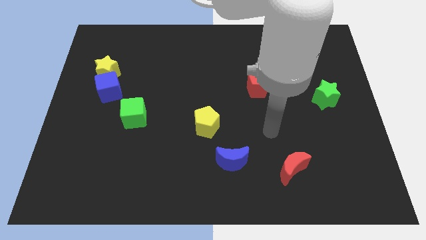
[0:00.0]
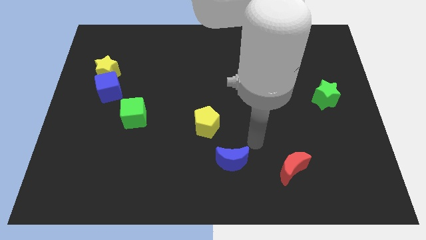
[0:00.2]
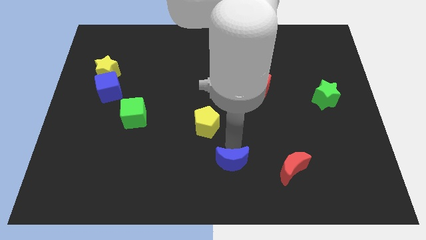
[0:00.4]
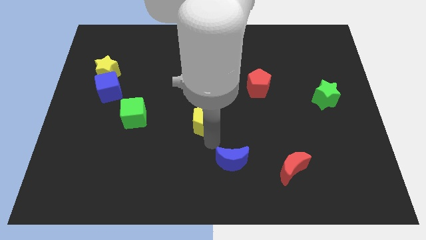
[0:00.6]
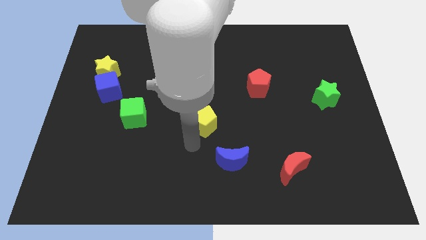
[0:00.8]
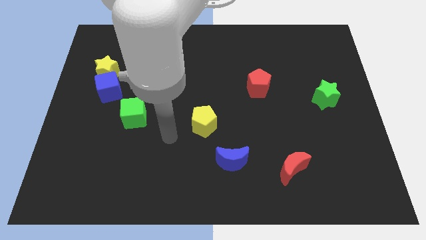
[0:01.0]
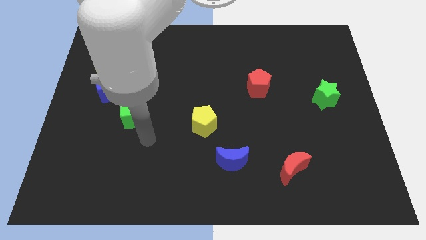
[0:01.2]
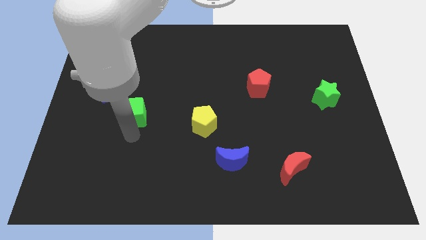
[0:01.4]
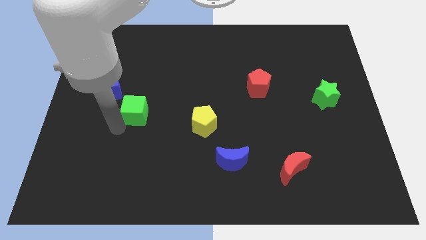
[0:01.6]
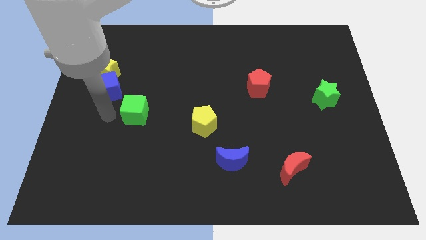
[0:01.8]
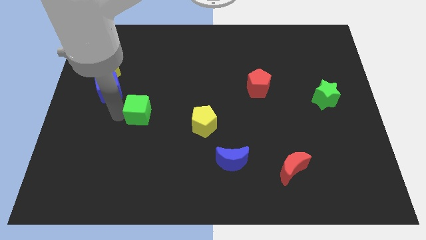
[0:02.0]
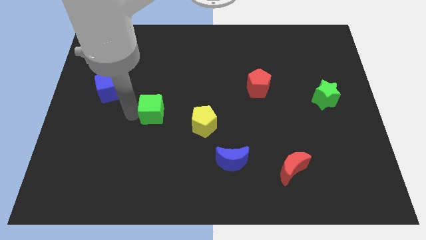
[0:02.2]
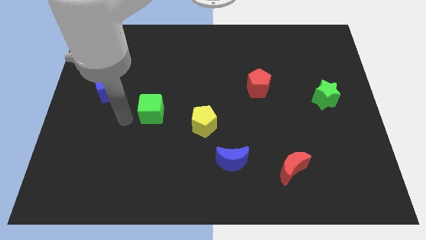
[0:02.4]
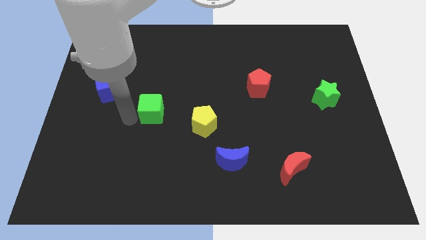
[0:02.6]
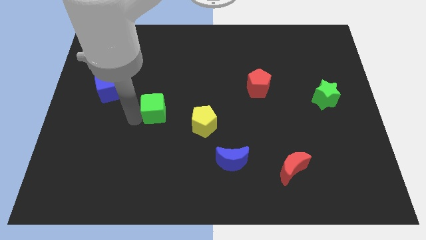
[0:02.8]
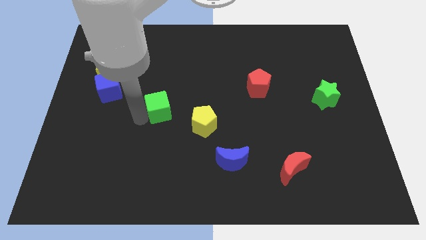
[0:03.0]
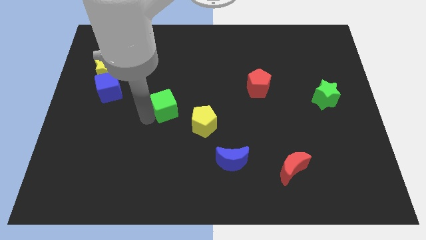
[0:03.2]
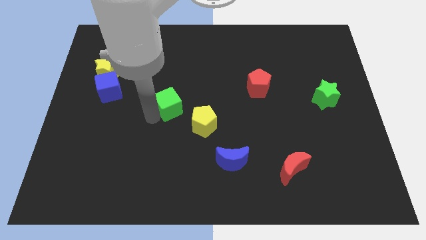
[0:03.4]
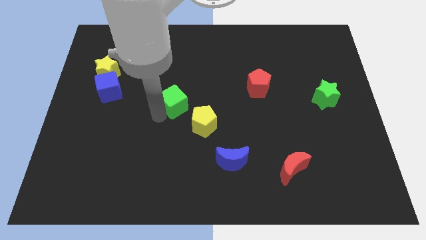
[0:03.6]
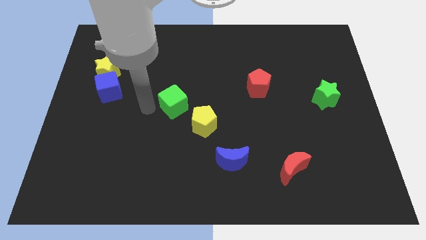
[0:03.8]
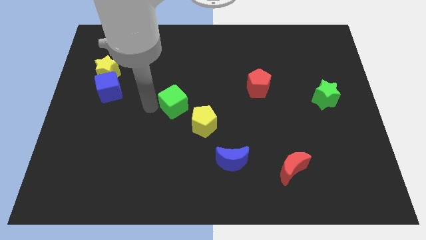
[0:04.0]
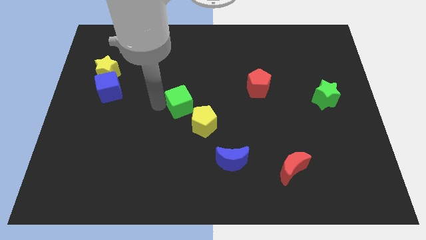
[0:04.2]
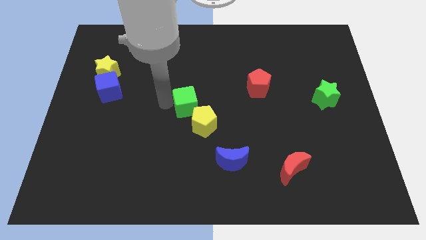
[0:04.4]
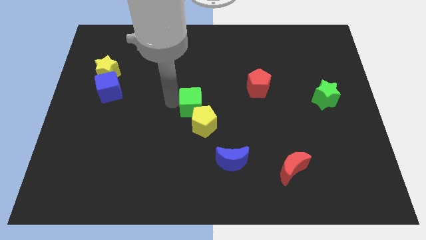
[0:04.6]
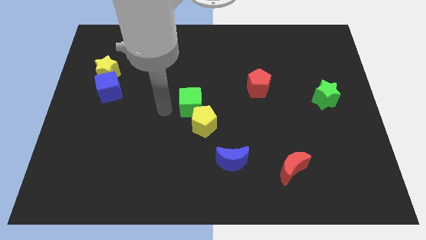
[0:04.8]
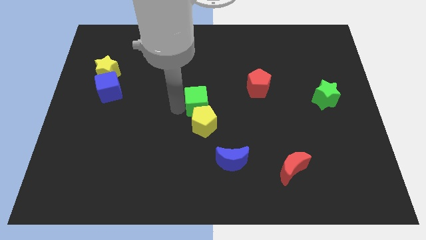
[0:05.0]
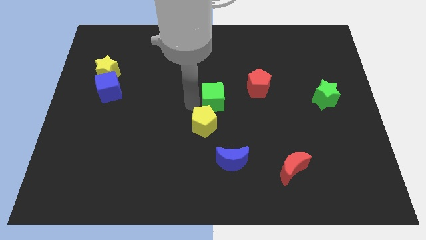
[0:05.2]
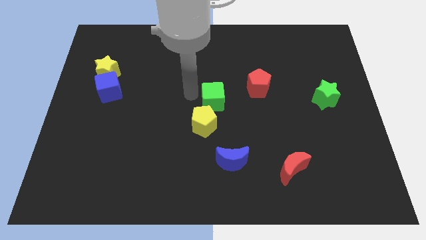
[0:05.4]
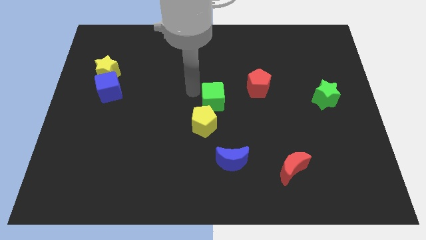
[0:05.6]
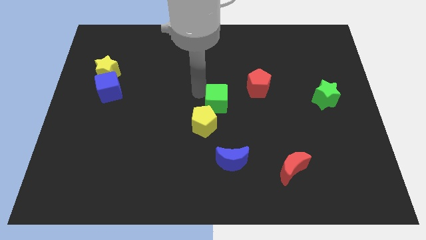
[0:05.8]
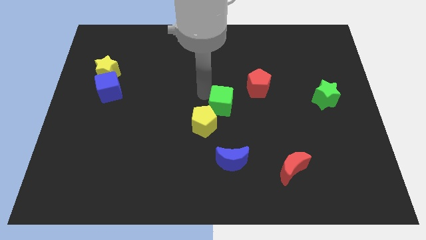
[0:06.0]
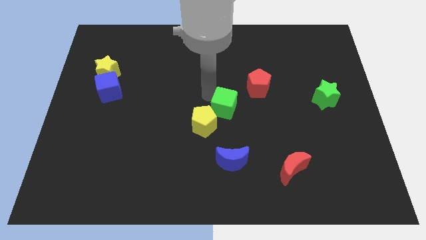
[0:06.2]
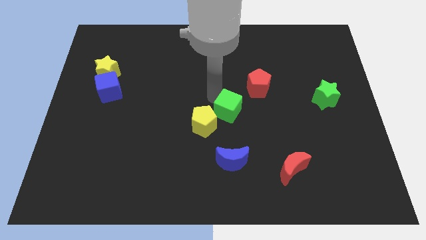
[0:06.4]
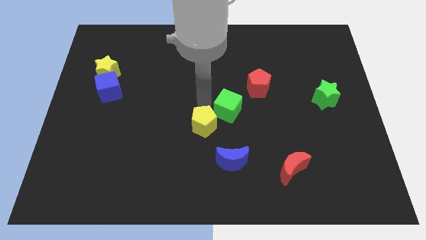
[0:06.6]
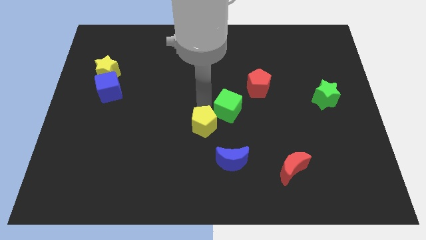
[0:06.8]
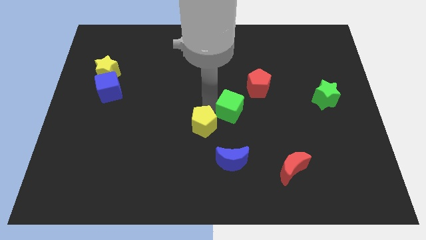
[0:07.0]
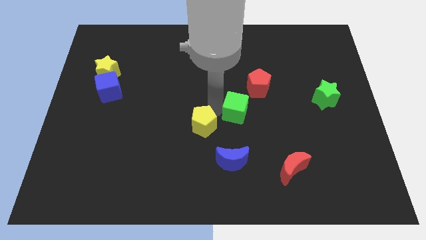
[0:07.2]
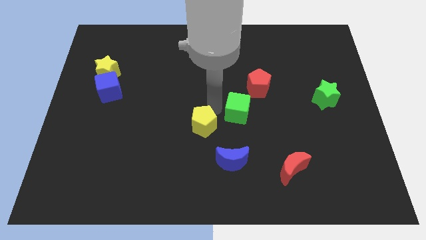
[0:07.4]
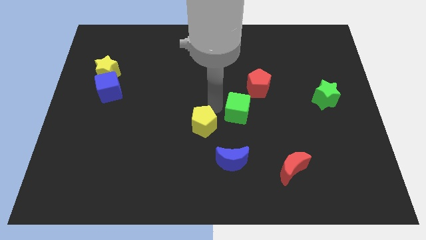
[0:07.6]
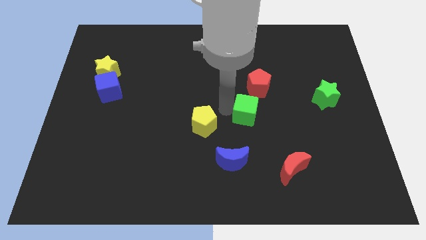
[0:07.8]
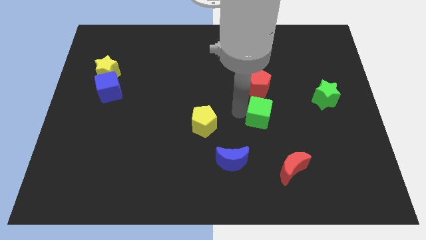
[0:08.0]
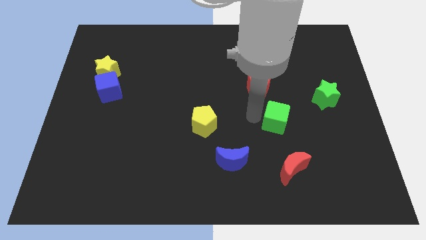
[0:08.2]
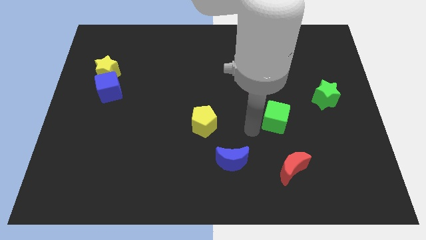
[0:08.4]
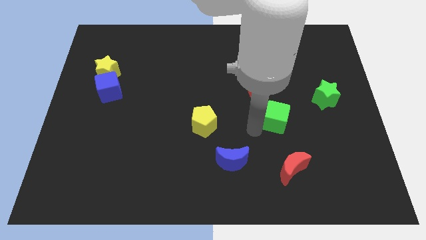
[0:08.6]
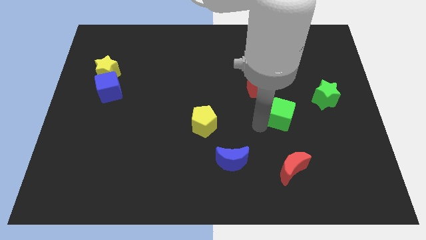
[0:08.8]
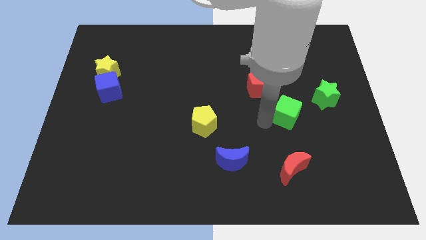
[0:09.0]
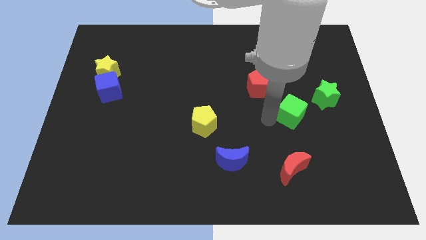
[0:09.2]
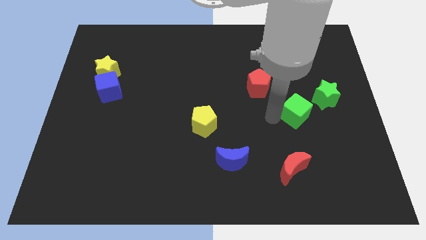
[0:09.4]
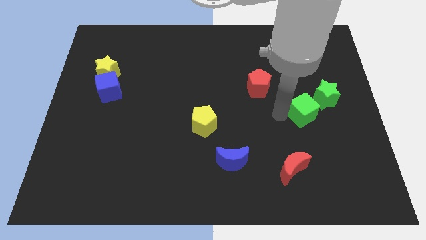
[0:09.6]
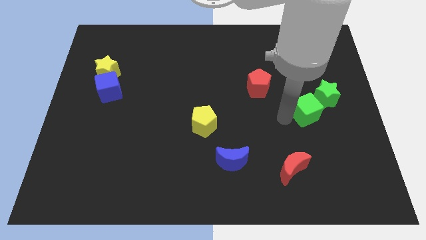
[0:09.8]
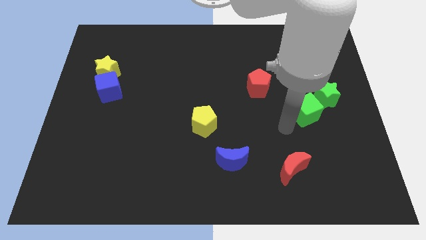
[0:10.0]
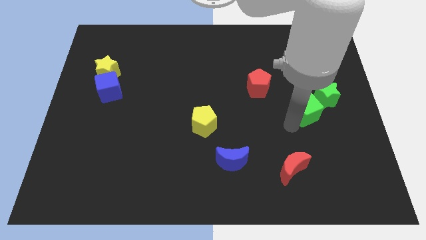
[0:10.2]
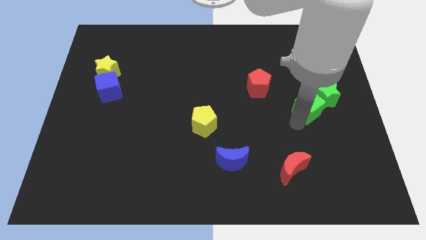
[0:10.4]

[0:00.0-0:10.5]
put the green cube to the green star

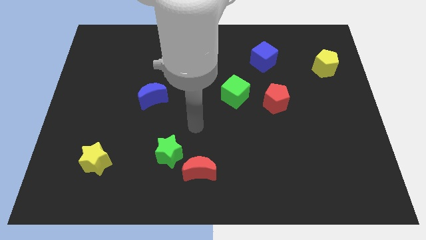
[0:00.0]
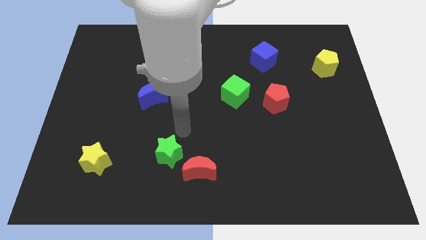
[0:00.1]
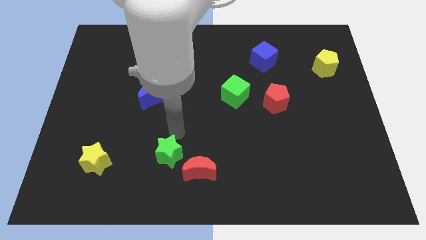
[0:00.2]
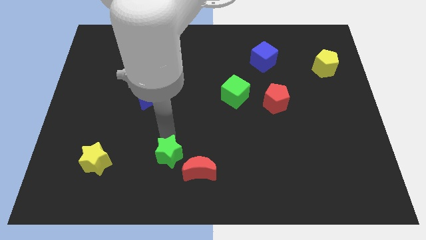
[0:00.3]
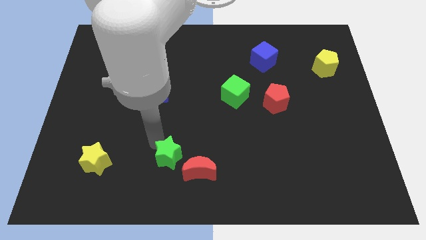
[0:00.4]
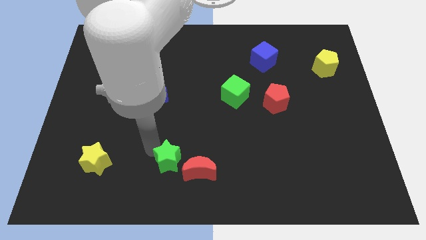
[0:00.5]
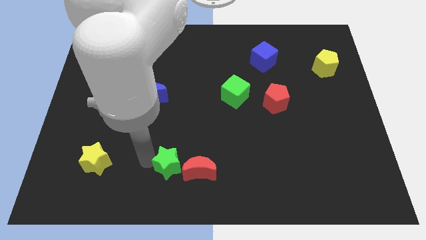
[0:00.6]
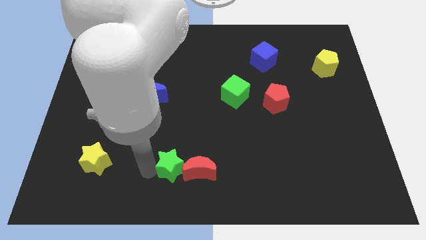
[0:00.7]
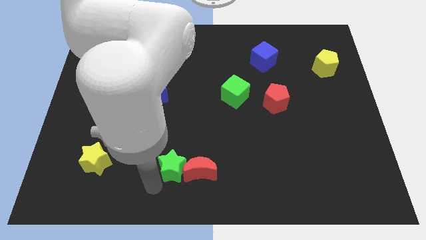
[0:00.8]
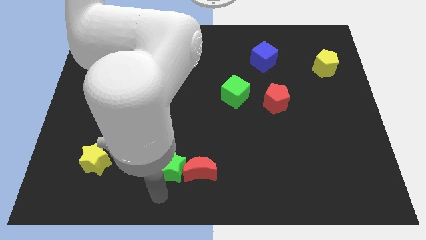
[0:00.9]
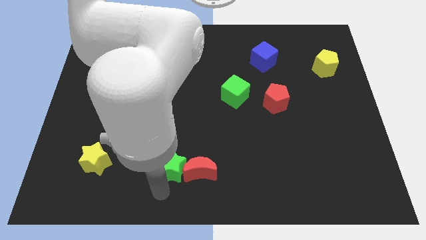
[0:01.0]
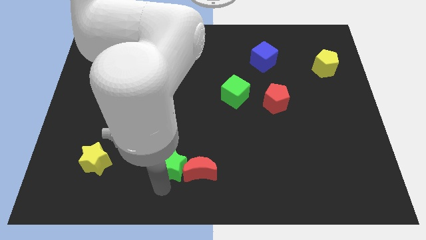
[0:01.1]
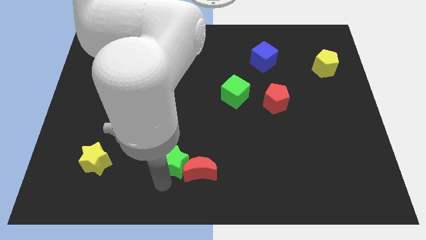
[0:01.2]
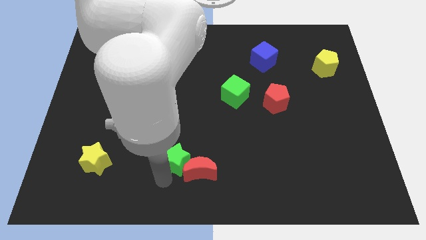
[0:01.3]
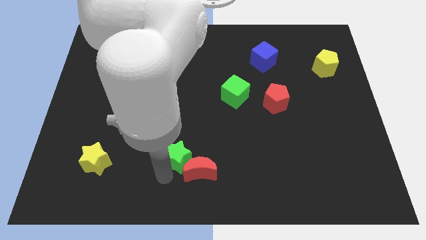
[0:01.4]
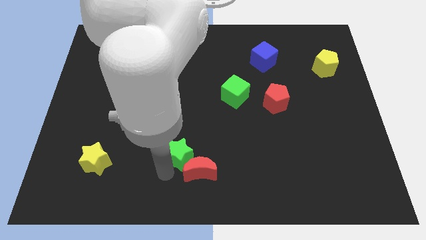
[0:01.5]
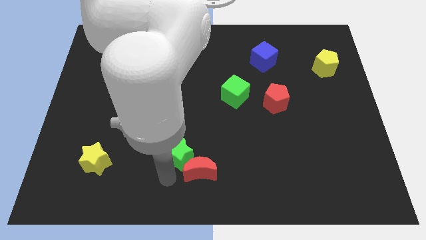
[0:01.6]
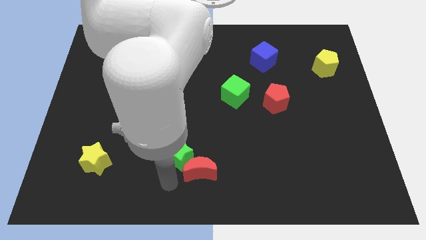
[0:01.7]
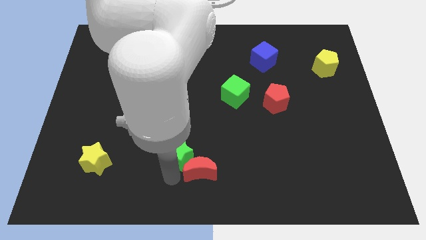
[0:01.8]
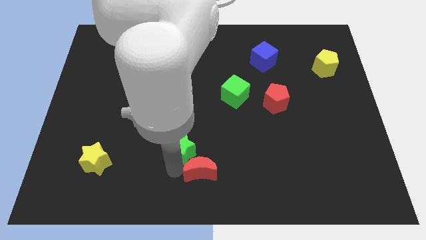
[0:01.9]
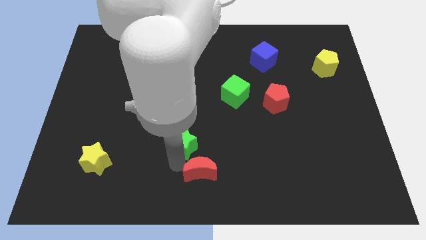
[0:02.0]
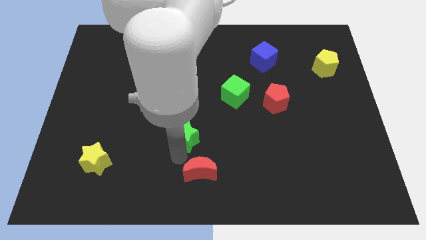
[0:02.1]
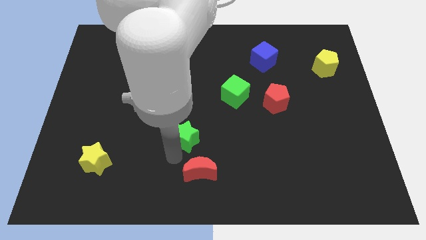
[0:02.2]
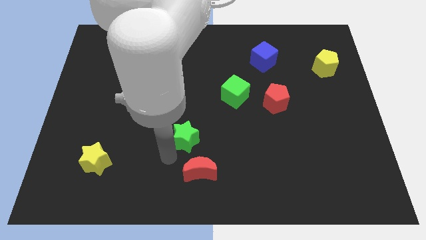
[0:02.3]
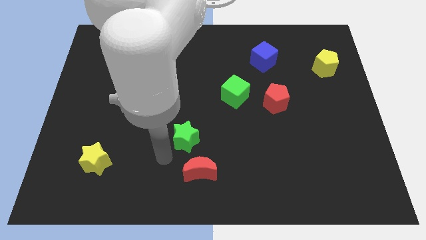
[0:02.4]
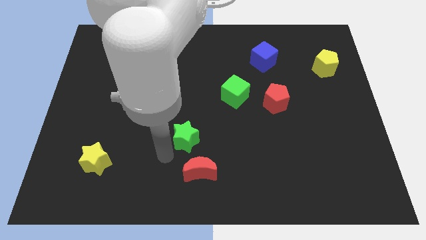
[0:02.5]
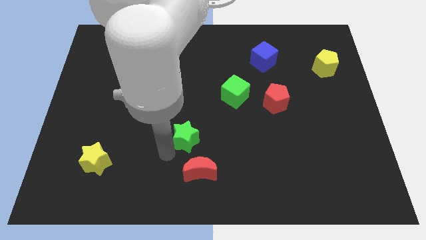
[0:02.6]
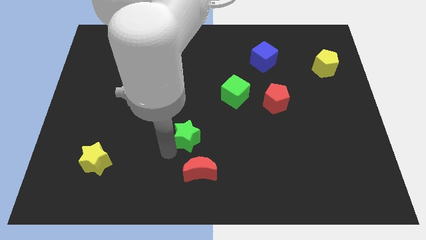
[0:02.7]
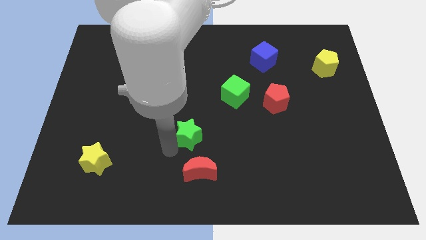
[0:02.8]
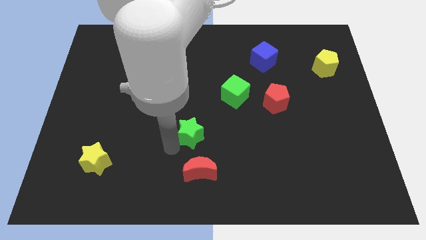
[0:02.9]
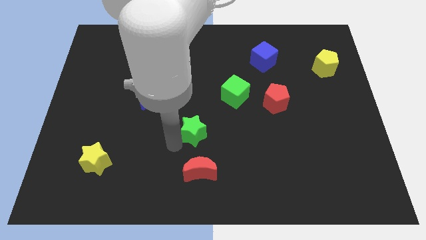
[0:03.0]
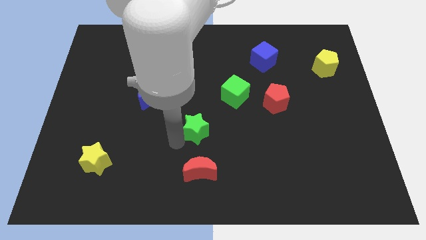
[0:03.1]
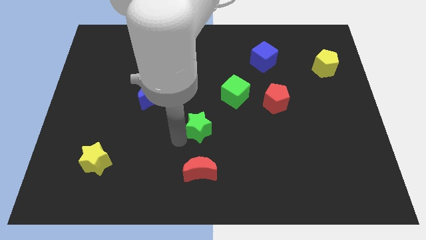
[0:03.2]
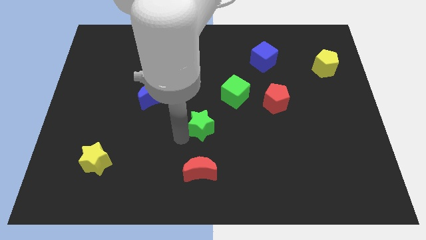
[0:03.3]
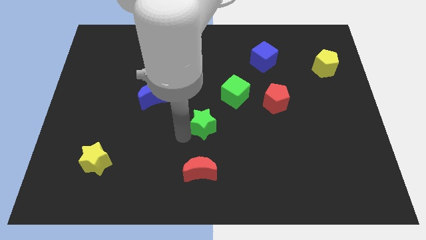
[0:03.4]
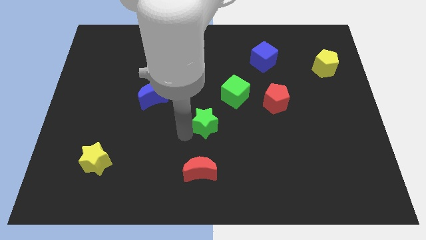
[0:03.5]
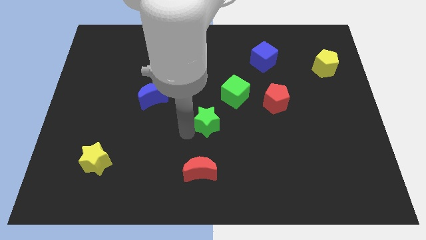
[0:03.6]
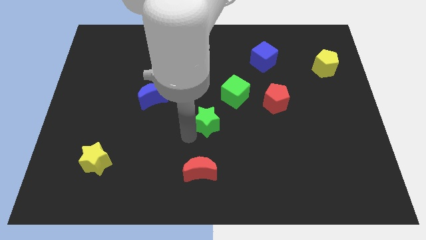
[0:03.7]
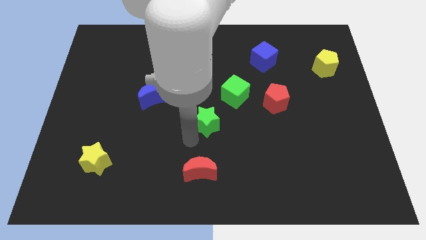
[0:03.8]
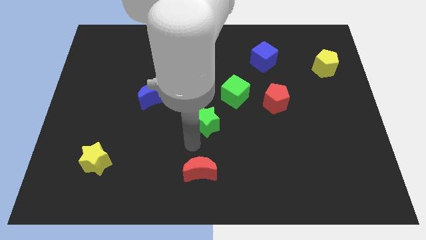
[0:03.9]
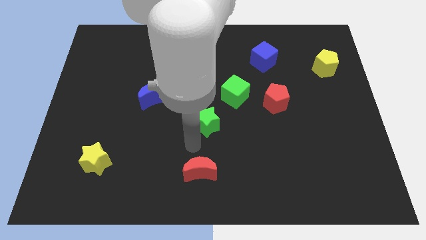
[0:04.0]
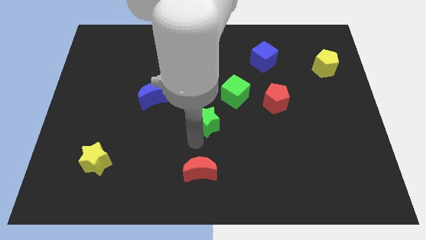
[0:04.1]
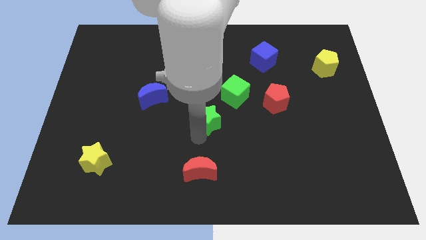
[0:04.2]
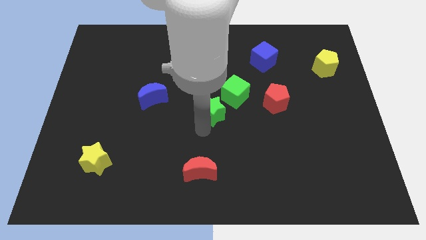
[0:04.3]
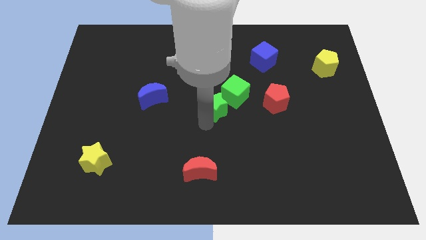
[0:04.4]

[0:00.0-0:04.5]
put the green star next to the green cube
